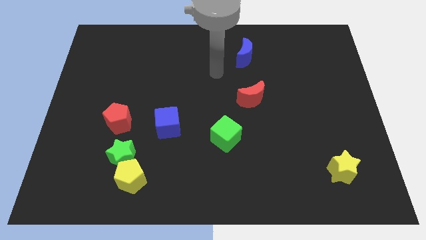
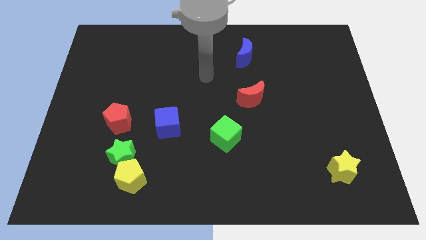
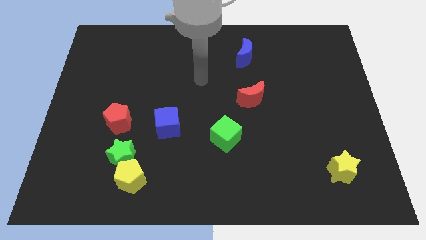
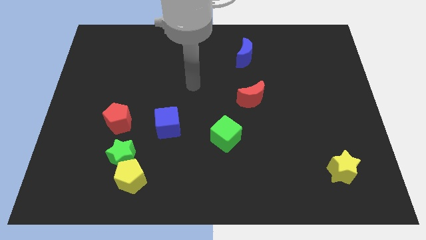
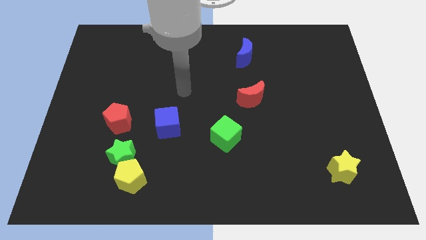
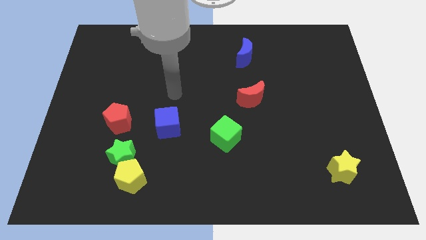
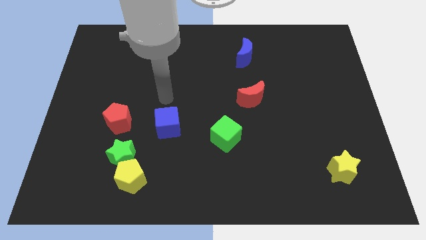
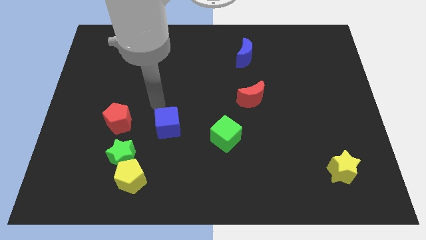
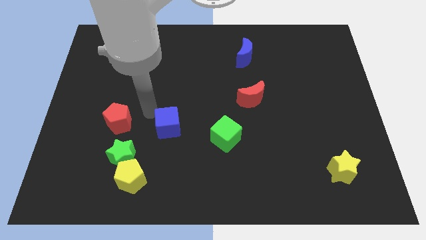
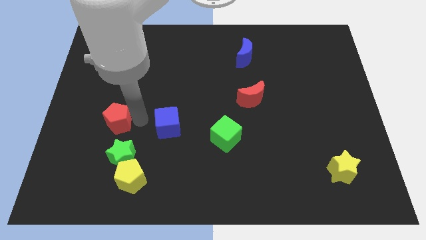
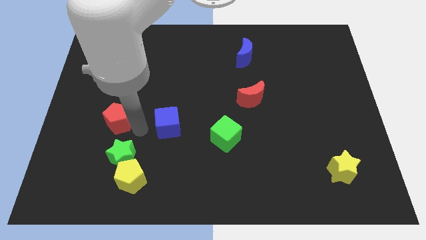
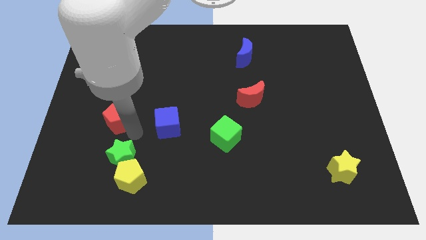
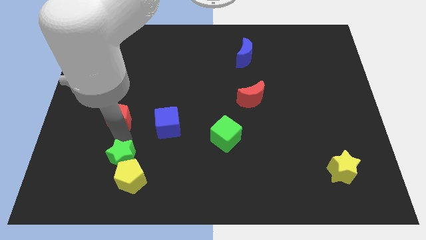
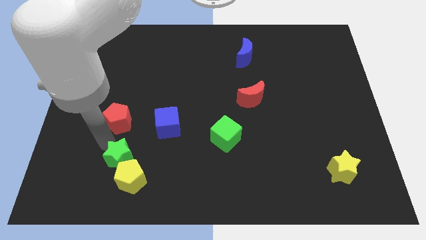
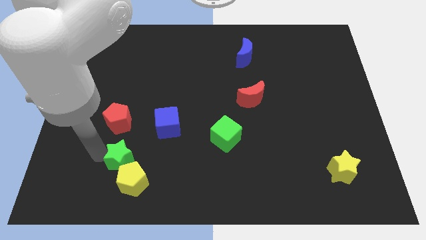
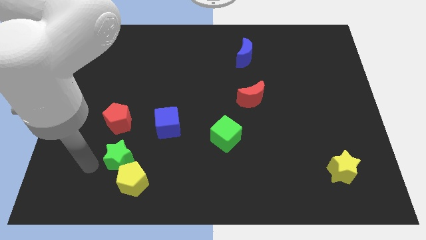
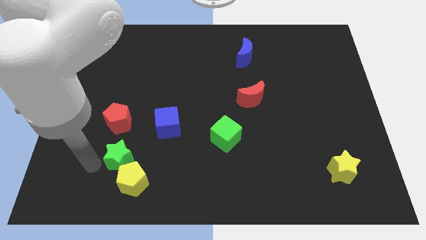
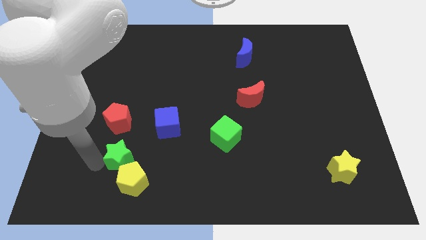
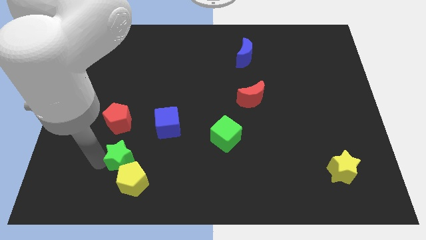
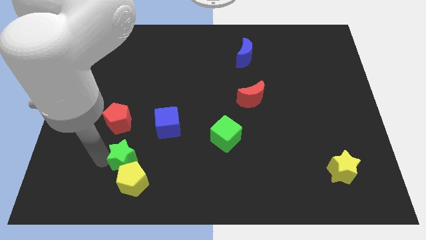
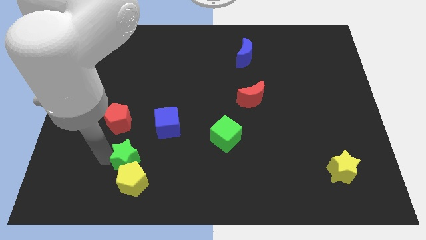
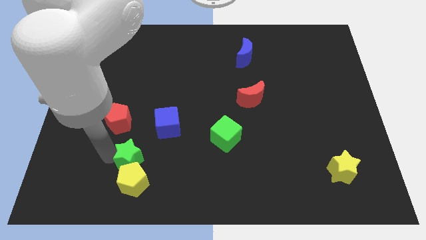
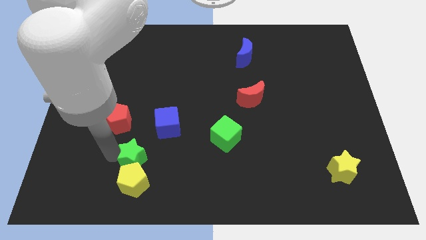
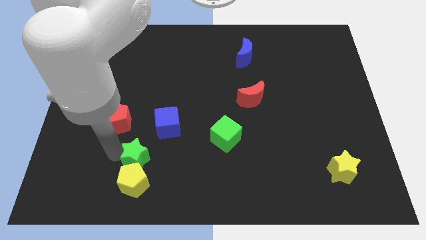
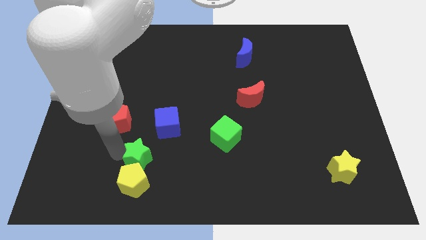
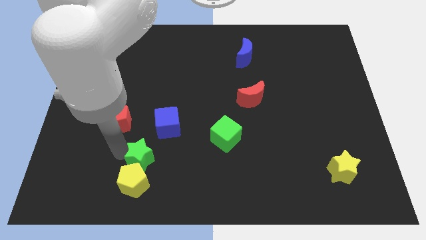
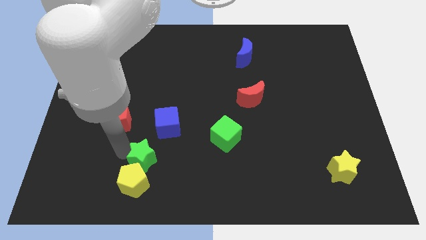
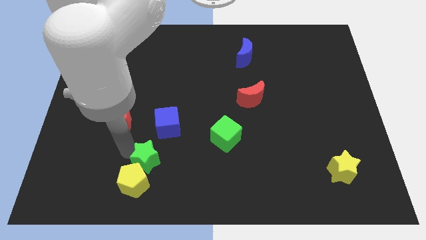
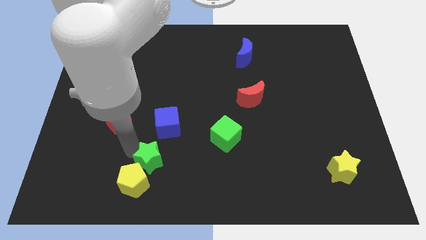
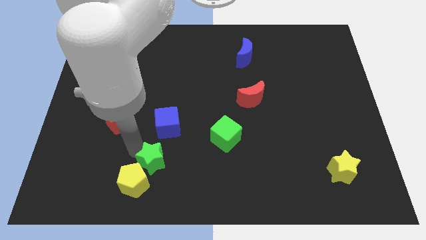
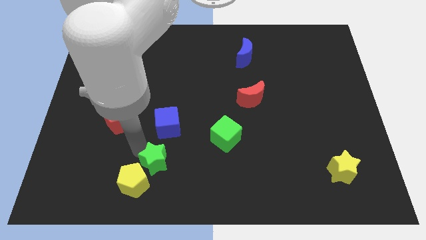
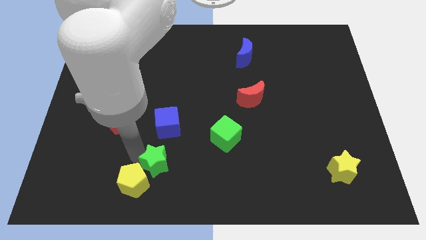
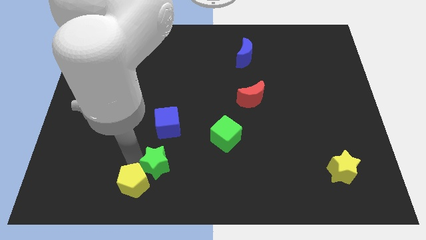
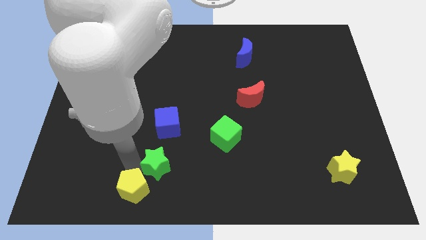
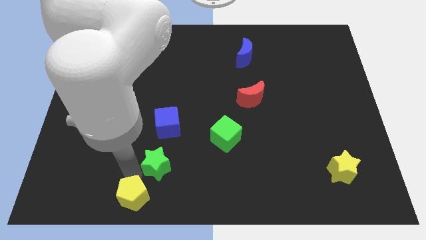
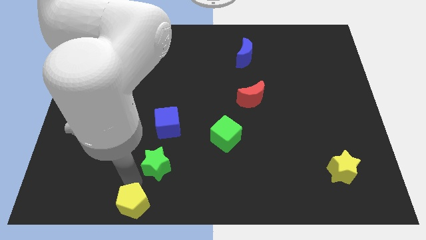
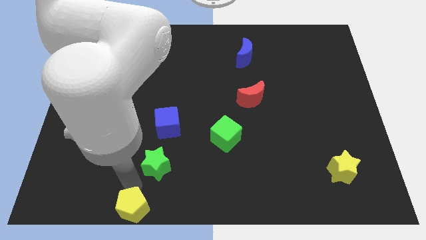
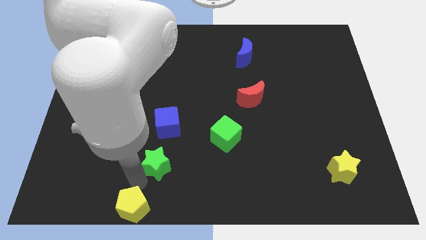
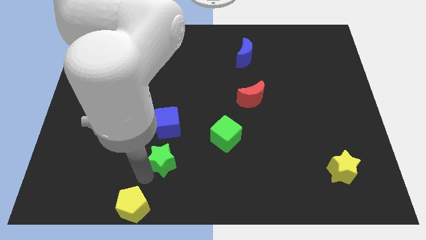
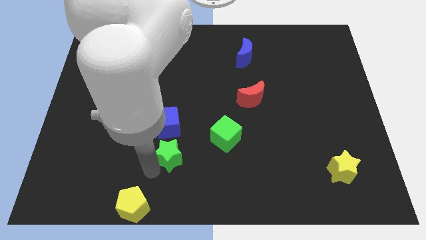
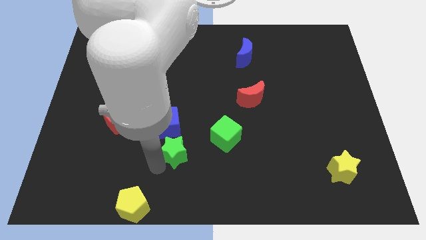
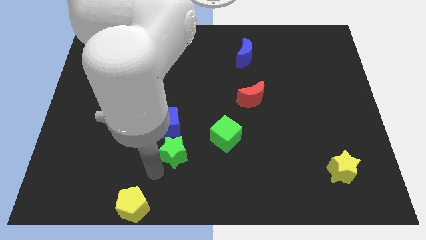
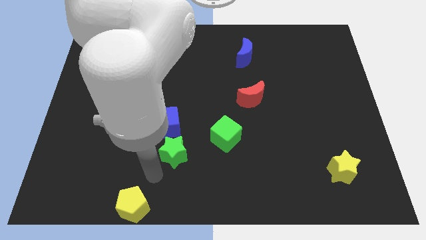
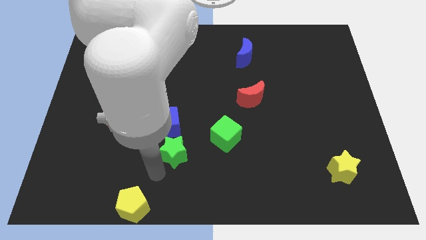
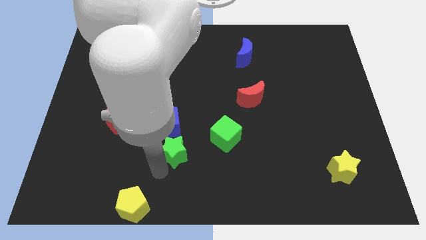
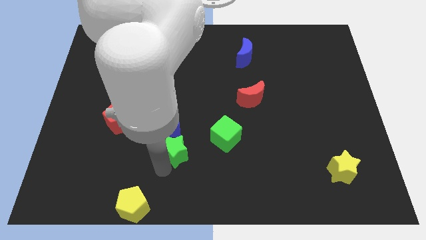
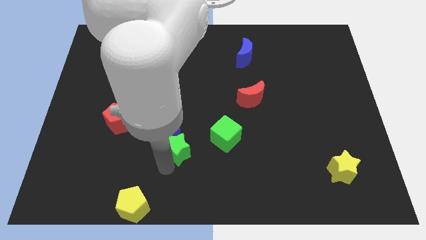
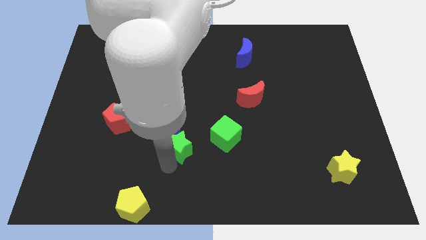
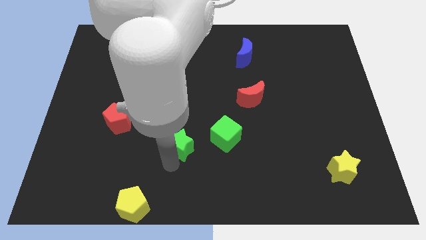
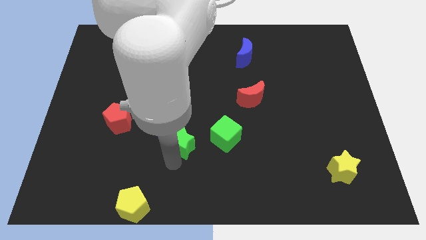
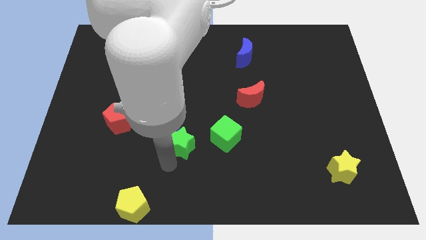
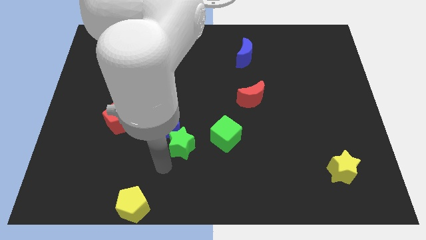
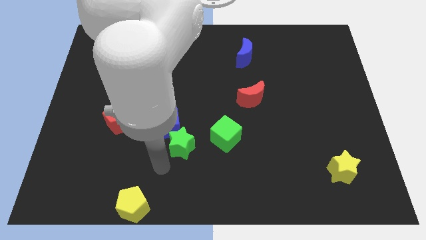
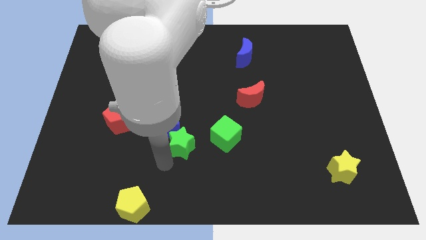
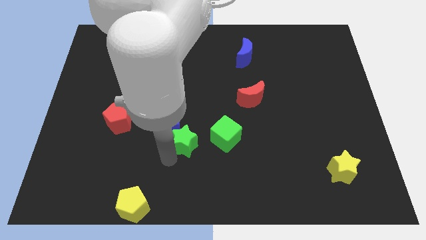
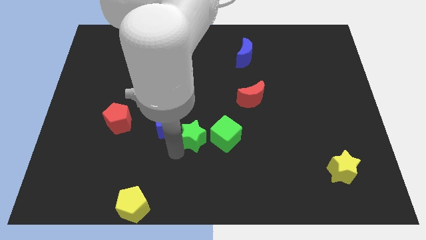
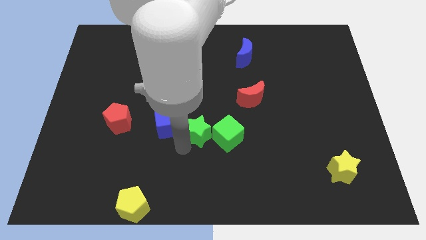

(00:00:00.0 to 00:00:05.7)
slide the green star to the top left of the green cube

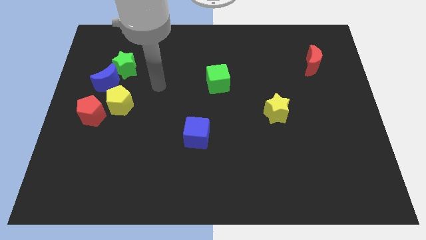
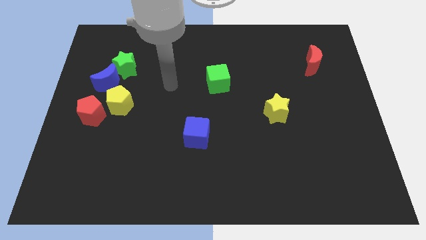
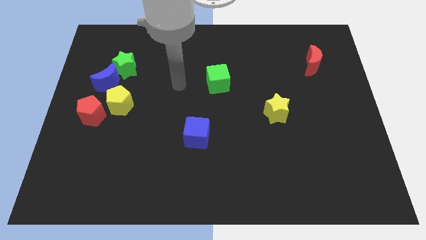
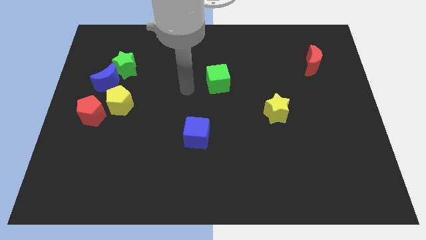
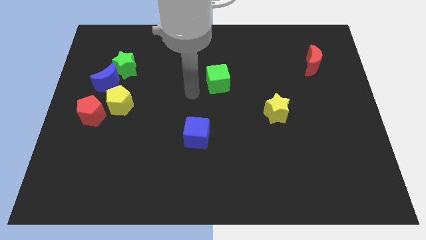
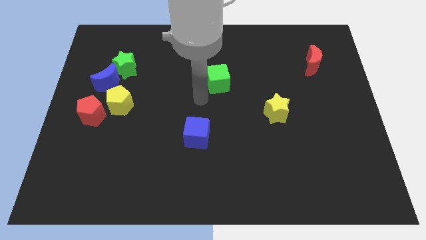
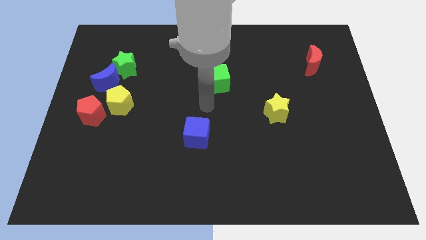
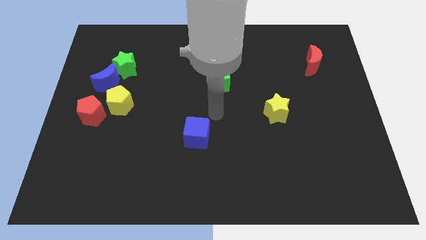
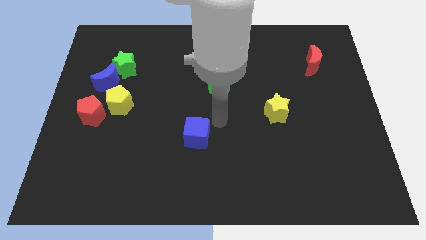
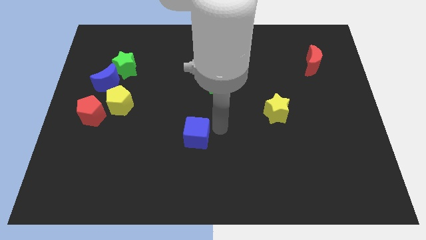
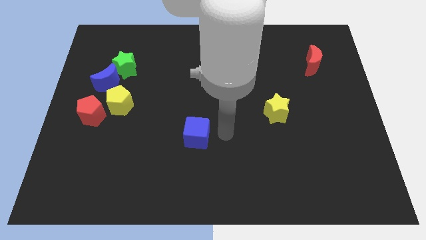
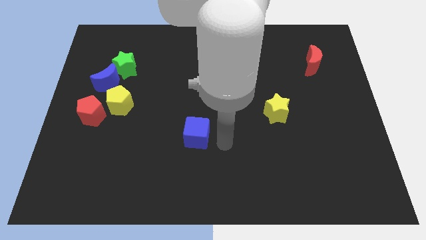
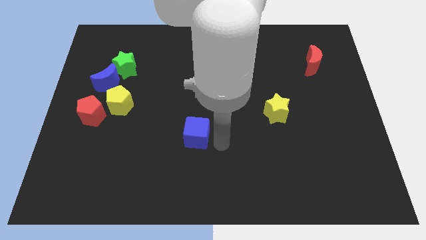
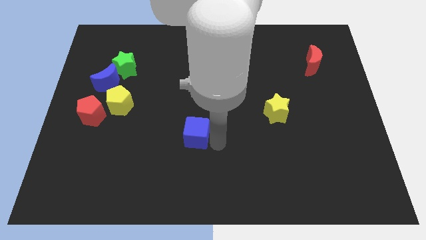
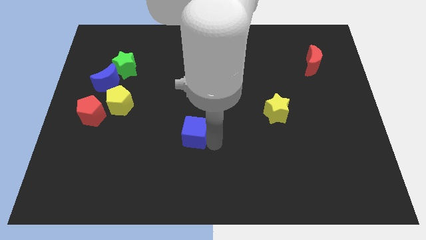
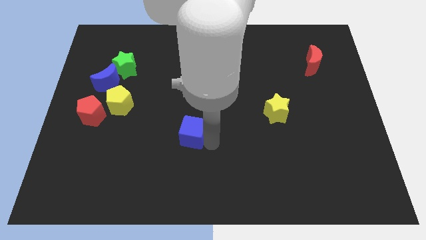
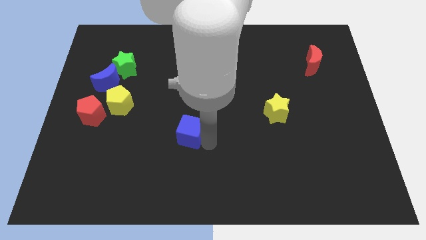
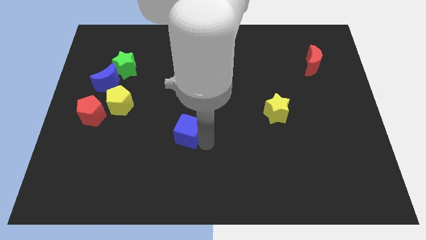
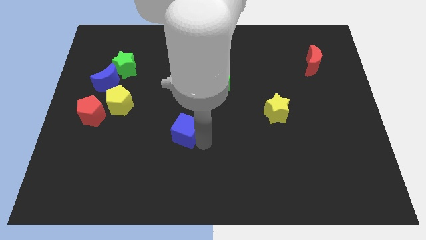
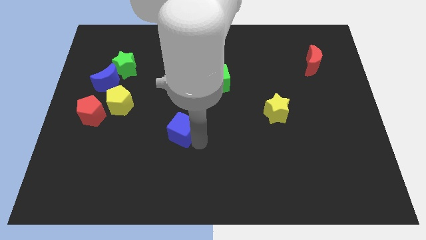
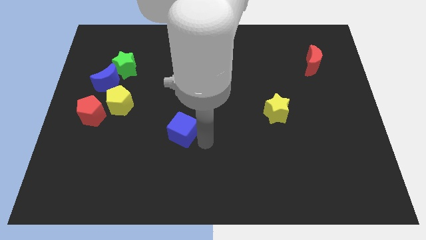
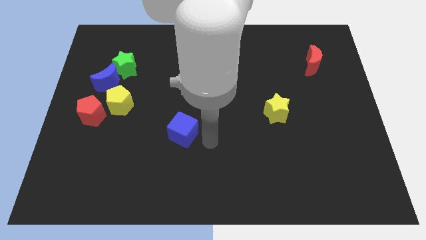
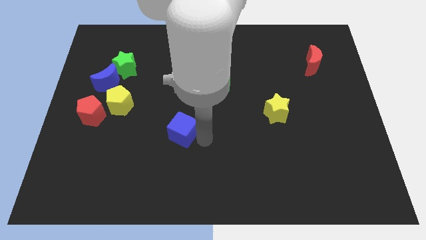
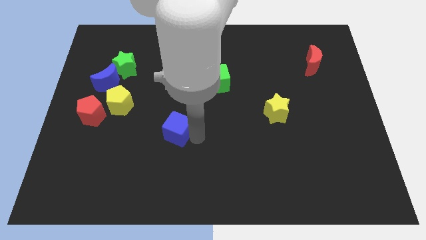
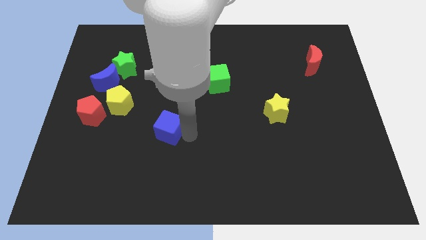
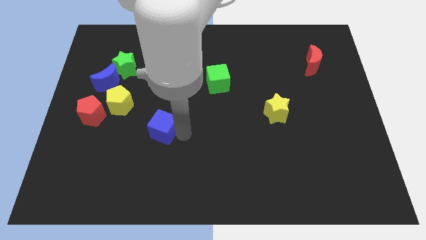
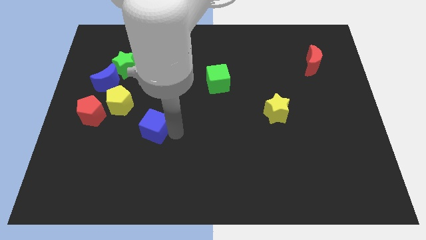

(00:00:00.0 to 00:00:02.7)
move the blue cube to the bottom right side of the yellow pentagon
